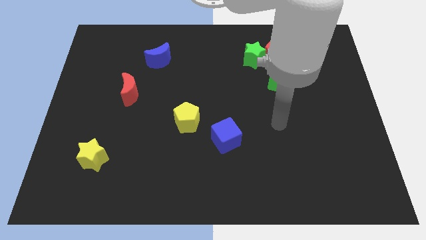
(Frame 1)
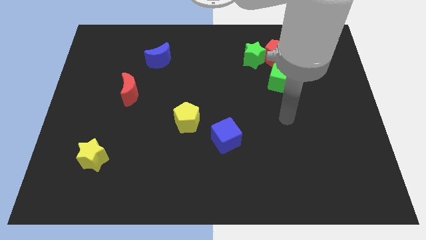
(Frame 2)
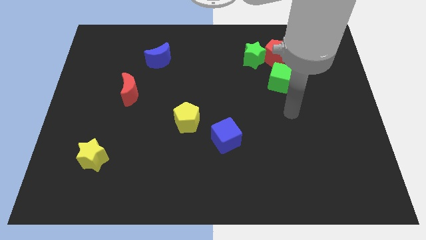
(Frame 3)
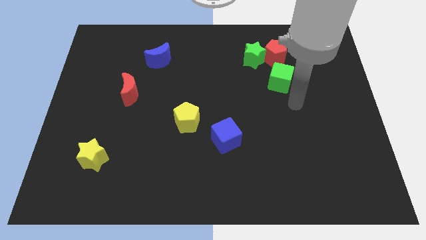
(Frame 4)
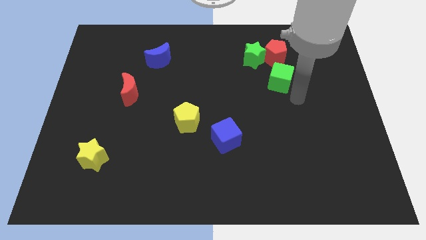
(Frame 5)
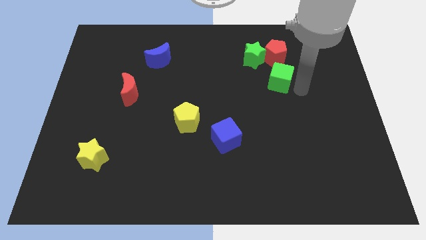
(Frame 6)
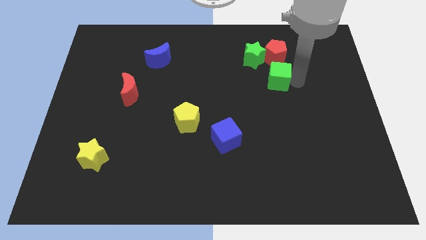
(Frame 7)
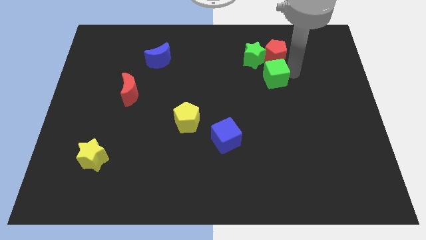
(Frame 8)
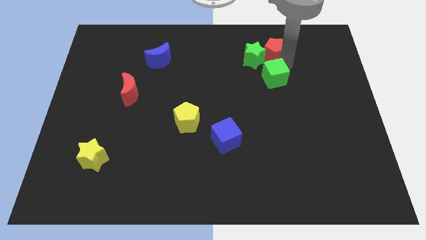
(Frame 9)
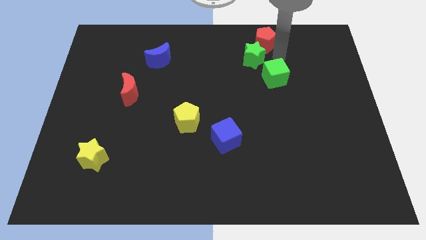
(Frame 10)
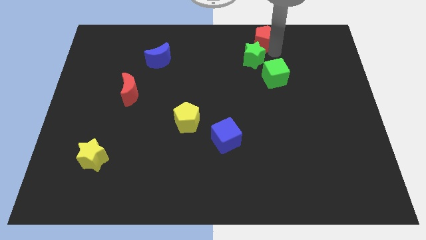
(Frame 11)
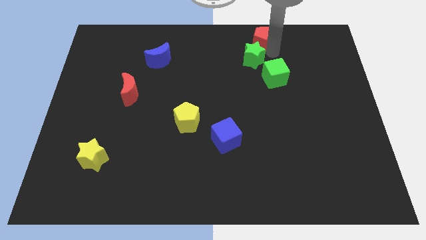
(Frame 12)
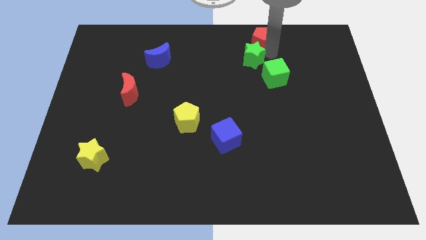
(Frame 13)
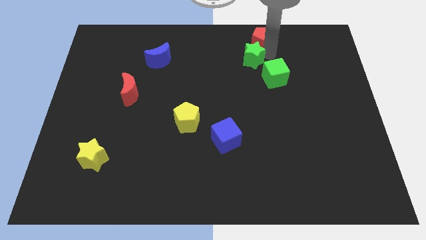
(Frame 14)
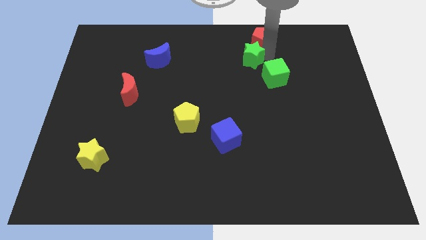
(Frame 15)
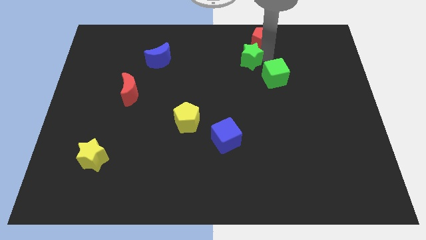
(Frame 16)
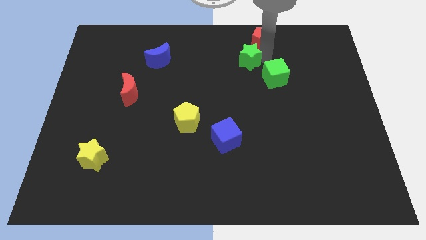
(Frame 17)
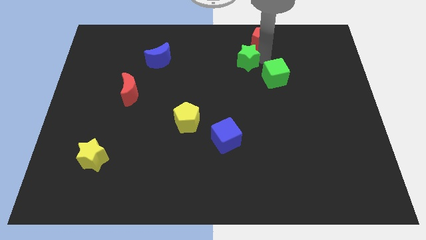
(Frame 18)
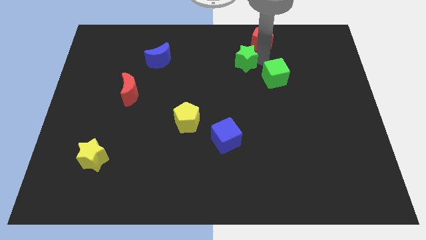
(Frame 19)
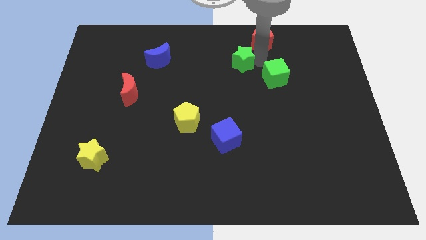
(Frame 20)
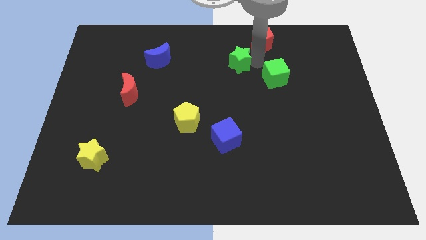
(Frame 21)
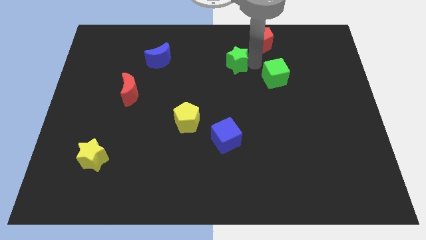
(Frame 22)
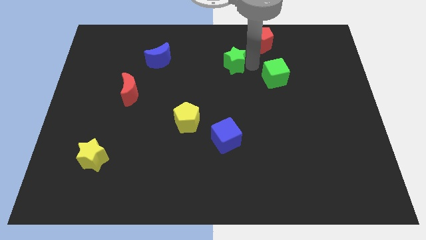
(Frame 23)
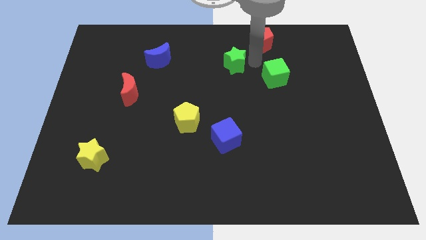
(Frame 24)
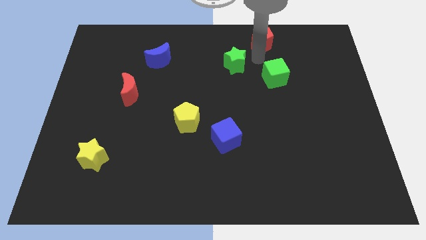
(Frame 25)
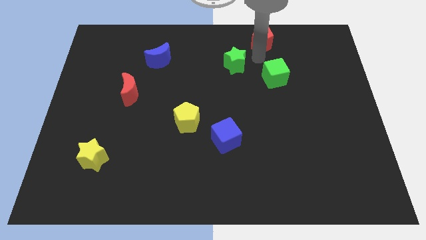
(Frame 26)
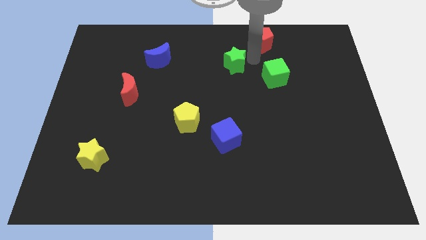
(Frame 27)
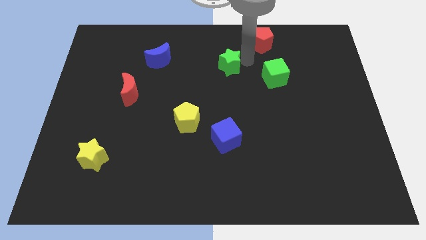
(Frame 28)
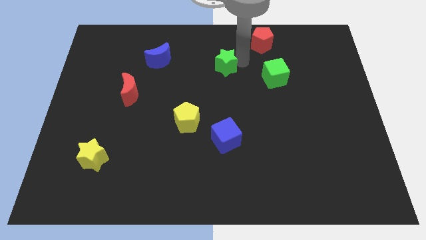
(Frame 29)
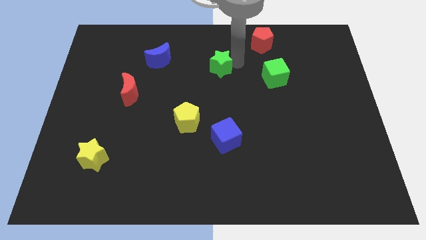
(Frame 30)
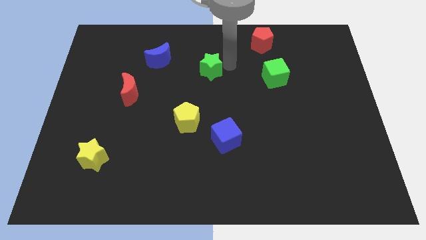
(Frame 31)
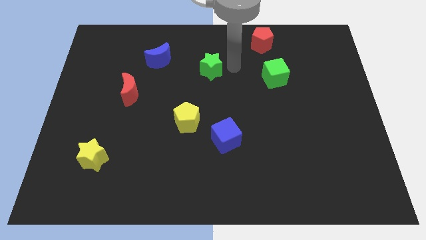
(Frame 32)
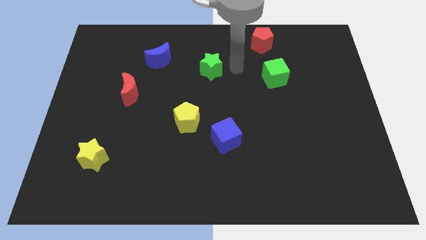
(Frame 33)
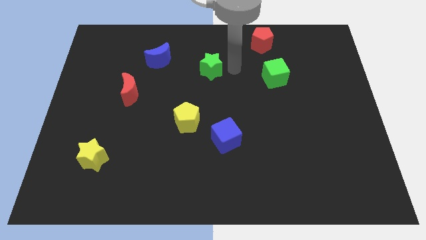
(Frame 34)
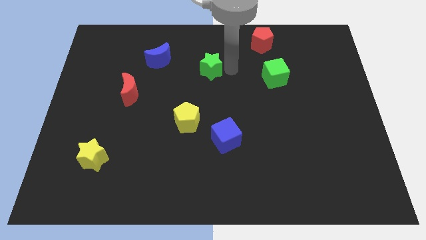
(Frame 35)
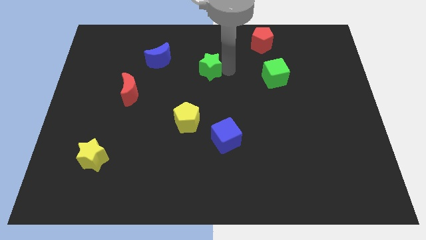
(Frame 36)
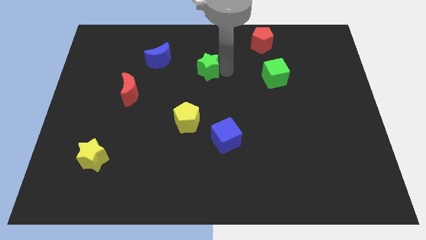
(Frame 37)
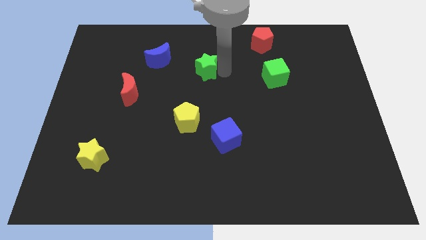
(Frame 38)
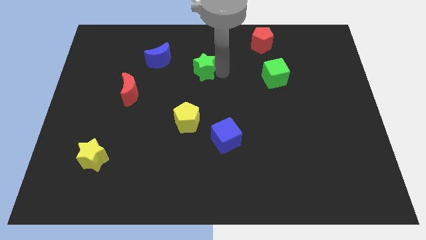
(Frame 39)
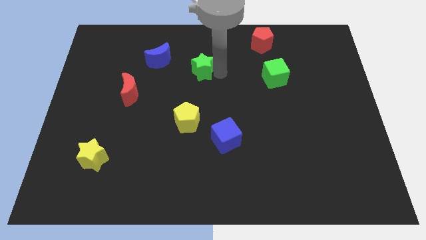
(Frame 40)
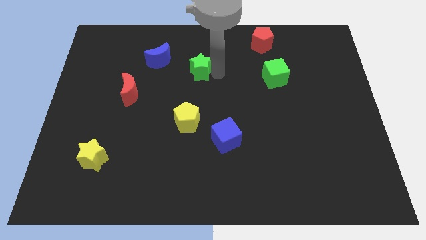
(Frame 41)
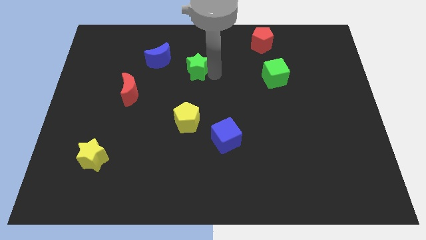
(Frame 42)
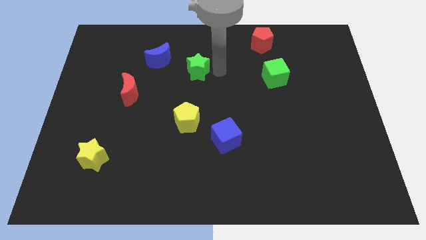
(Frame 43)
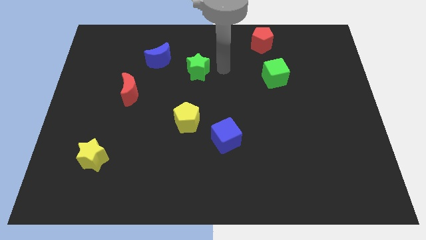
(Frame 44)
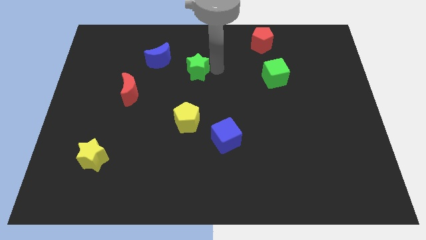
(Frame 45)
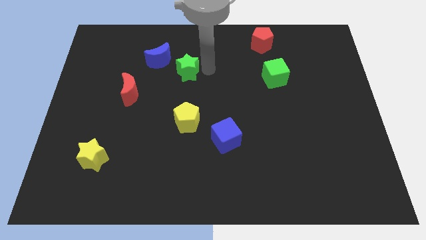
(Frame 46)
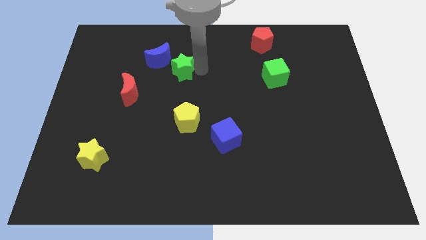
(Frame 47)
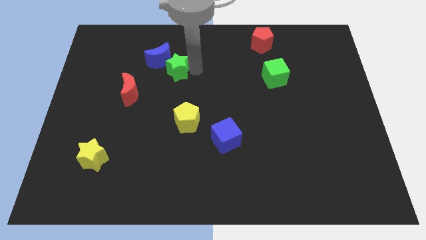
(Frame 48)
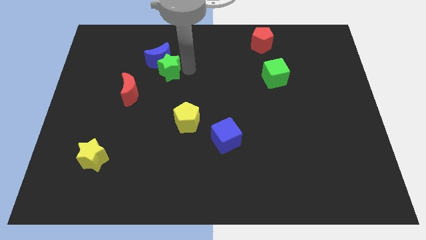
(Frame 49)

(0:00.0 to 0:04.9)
push the green star to the left

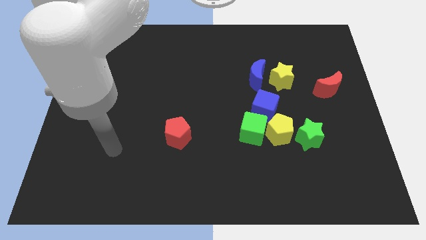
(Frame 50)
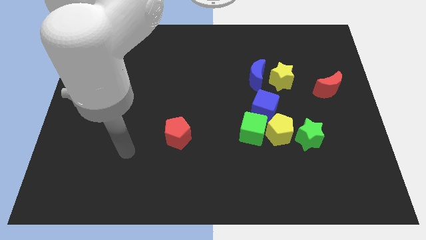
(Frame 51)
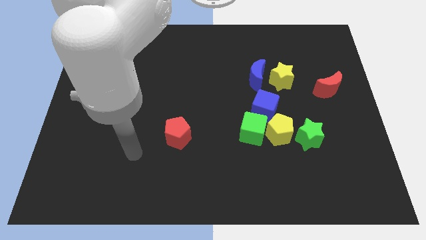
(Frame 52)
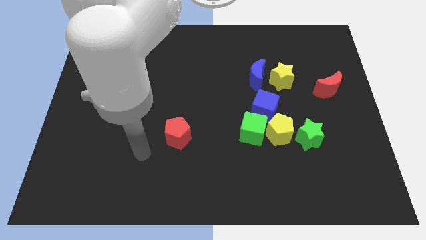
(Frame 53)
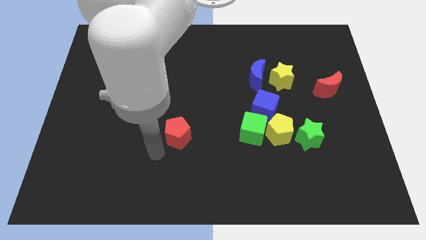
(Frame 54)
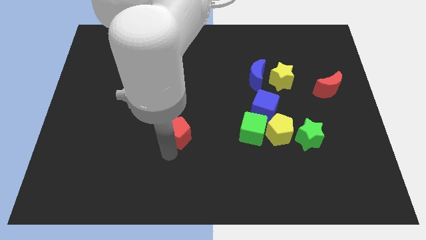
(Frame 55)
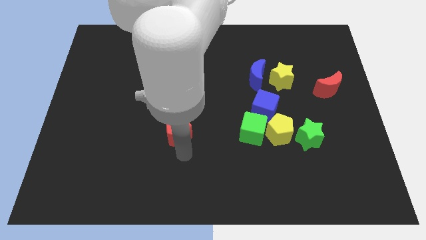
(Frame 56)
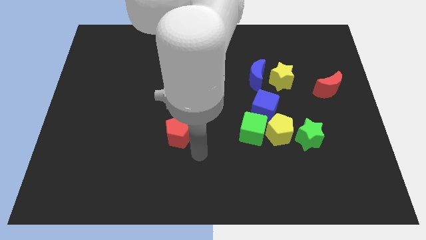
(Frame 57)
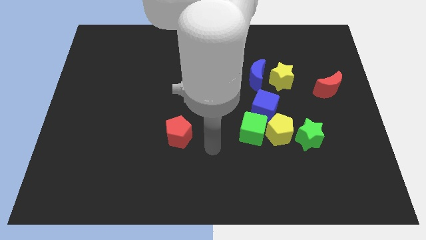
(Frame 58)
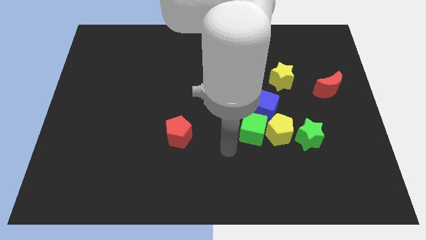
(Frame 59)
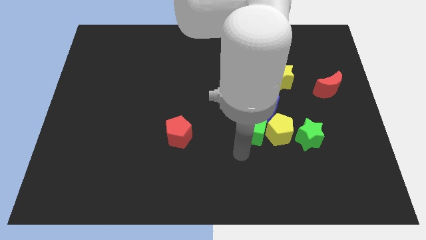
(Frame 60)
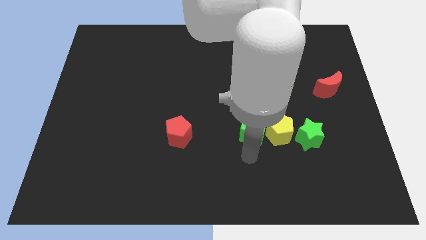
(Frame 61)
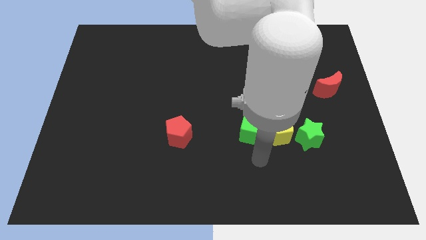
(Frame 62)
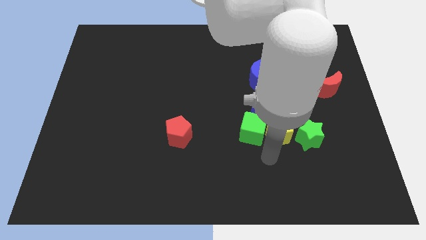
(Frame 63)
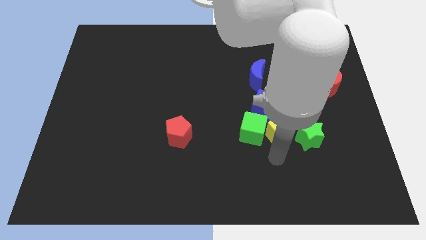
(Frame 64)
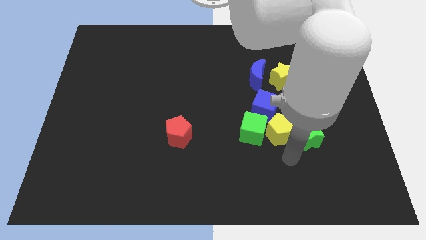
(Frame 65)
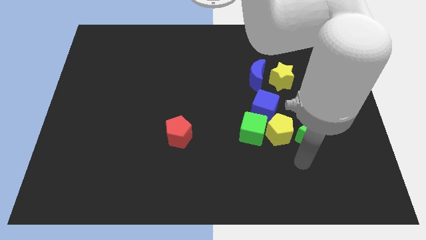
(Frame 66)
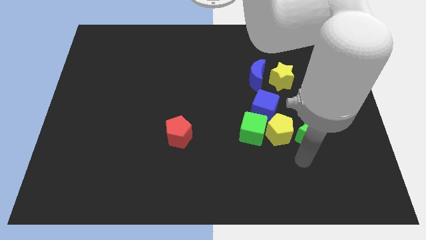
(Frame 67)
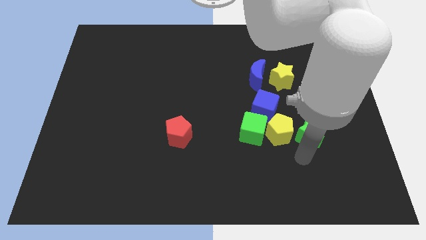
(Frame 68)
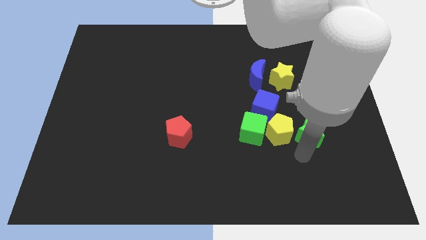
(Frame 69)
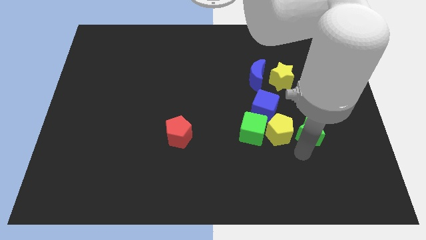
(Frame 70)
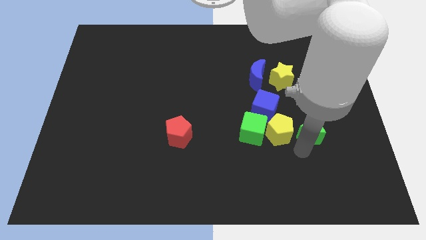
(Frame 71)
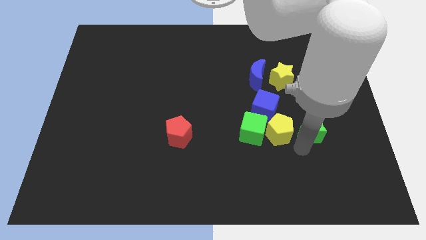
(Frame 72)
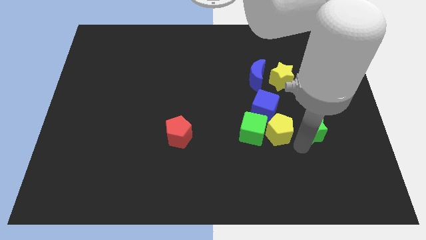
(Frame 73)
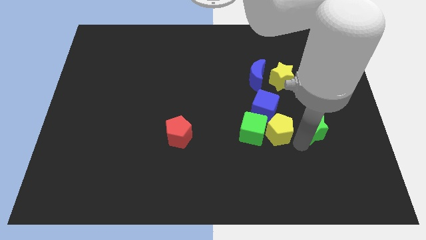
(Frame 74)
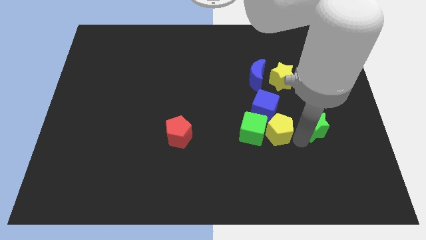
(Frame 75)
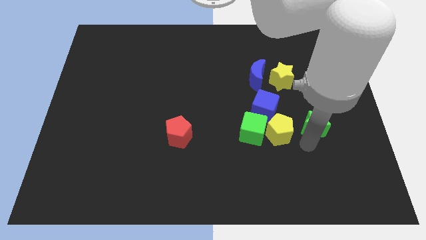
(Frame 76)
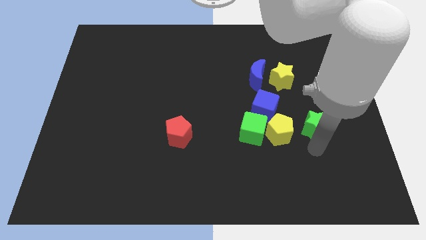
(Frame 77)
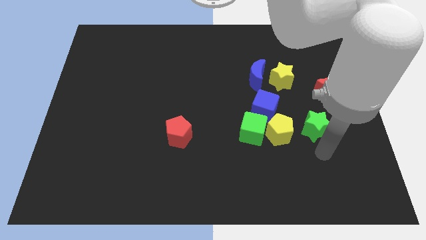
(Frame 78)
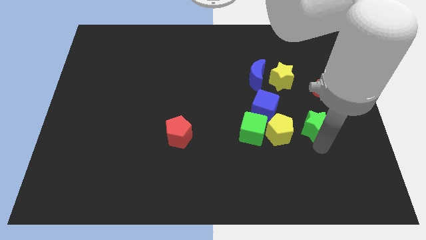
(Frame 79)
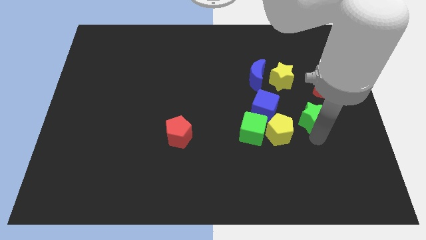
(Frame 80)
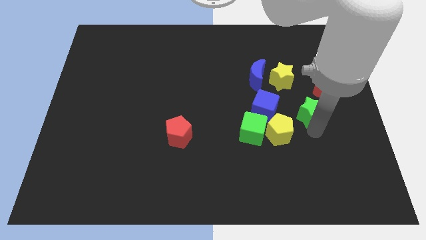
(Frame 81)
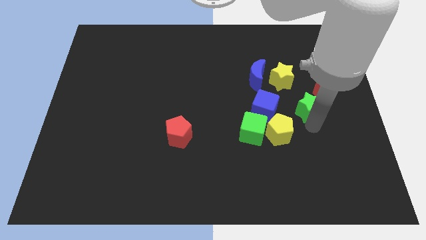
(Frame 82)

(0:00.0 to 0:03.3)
slide the green star somewhat upwards
